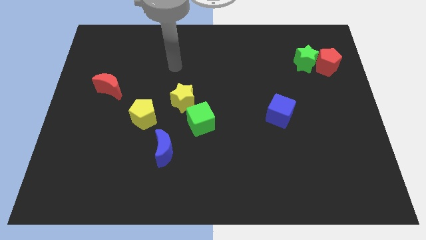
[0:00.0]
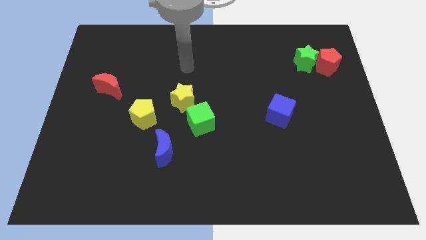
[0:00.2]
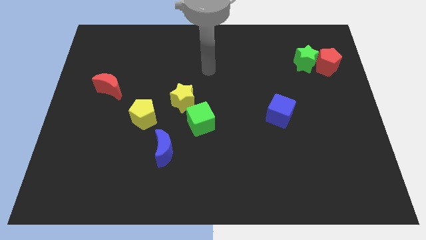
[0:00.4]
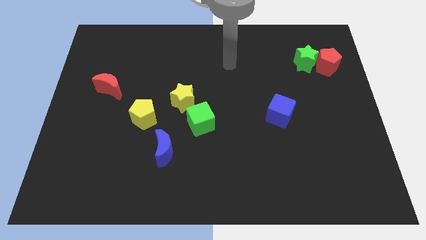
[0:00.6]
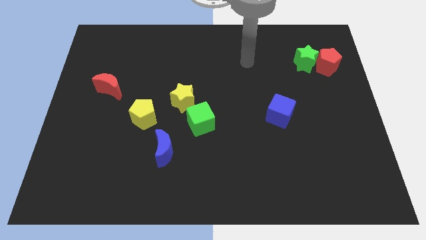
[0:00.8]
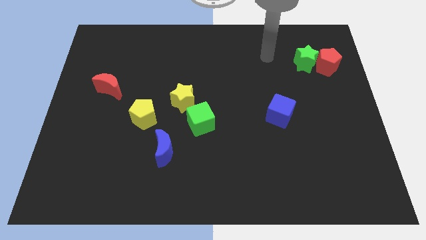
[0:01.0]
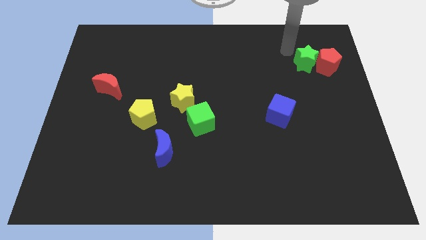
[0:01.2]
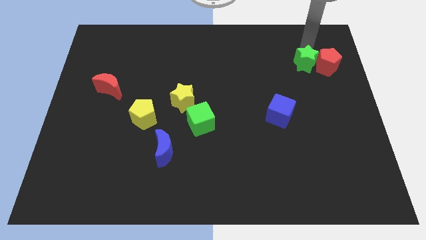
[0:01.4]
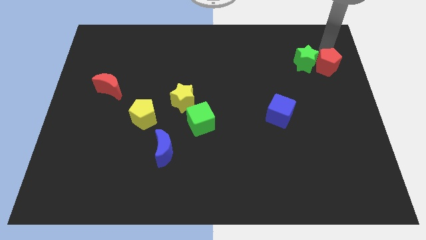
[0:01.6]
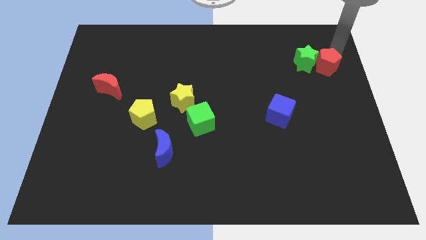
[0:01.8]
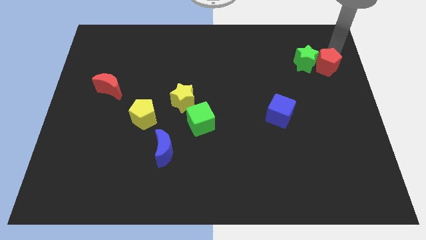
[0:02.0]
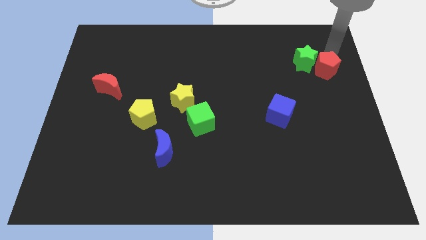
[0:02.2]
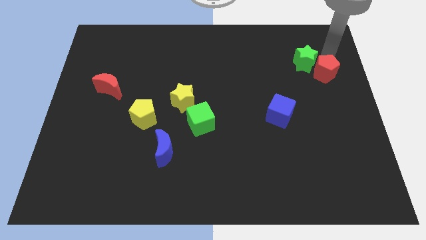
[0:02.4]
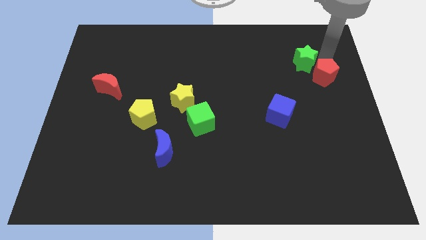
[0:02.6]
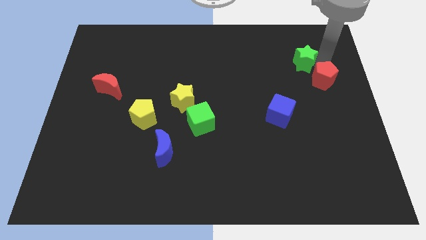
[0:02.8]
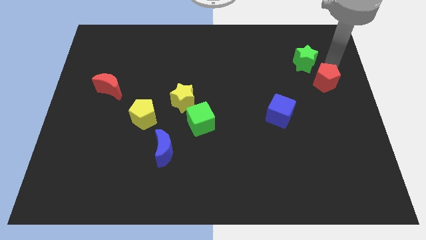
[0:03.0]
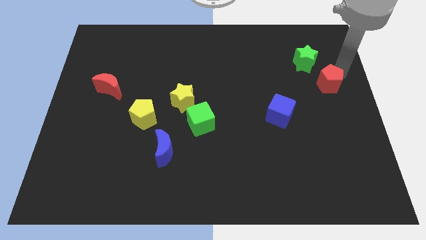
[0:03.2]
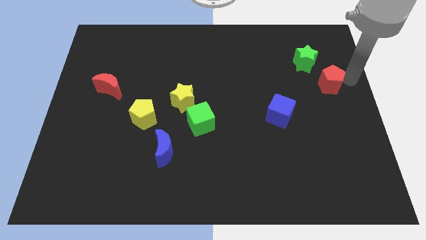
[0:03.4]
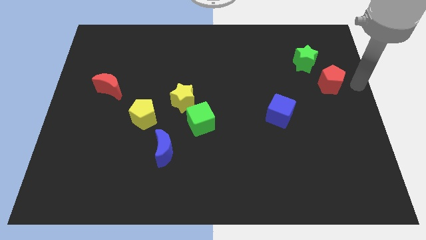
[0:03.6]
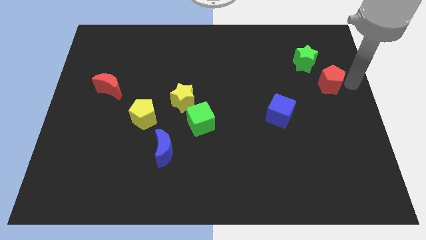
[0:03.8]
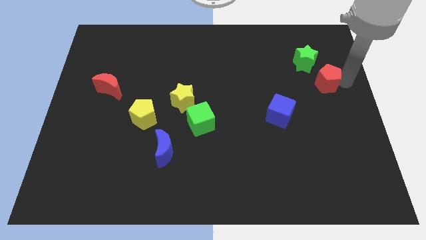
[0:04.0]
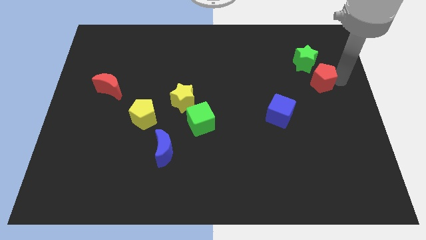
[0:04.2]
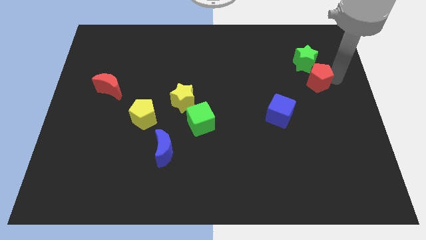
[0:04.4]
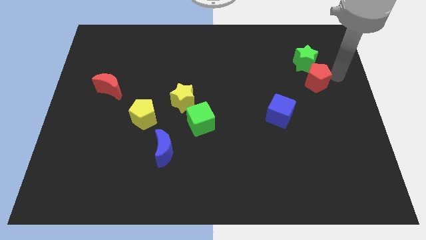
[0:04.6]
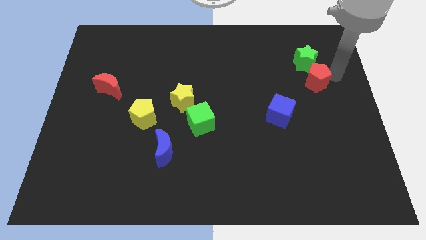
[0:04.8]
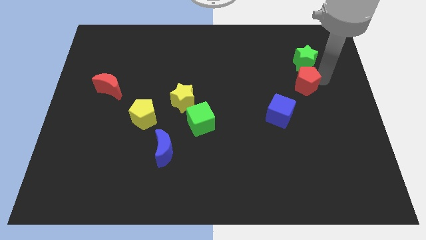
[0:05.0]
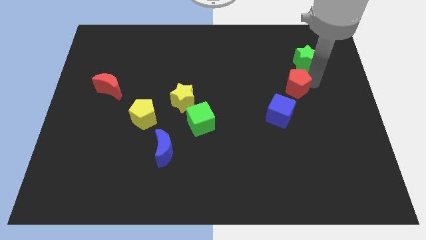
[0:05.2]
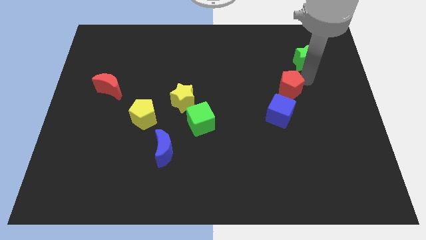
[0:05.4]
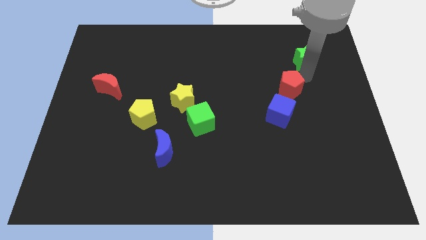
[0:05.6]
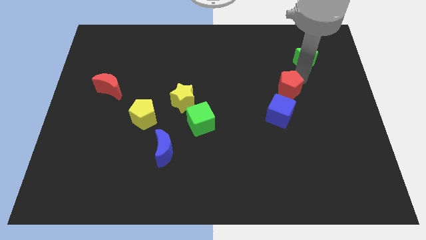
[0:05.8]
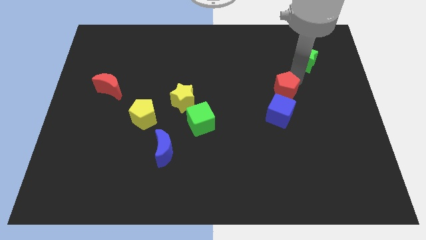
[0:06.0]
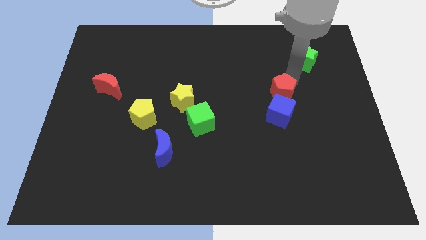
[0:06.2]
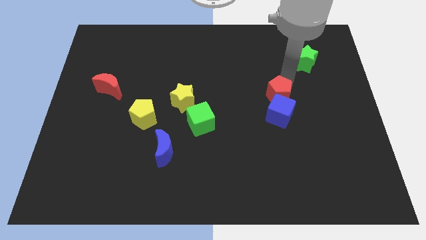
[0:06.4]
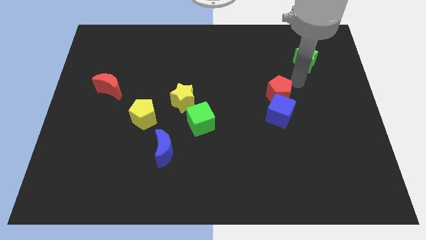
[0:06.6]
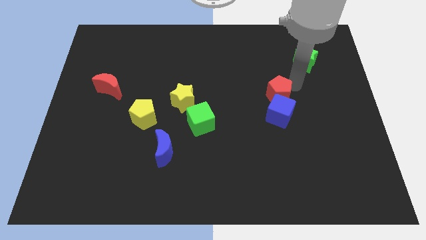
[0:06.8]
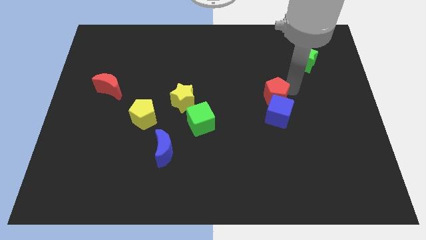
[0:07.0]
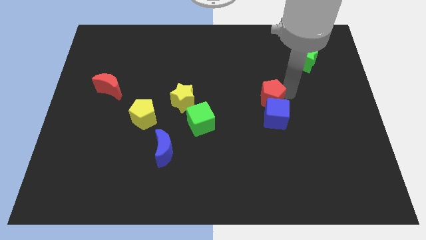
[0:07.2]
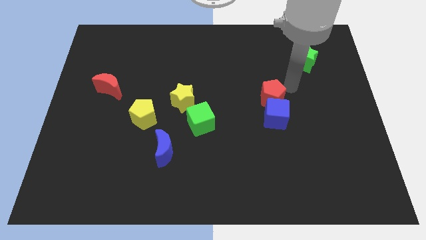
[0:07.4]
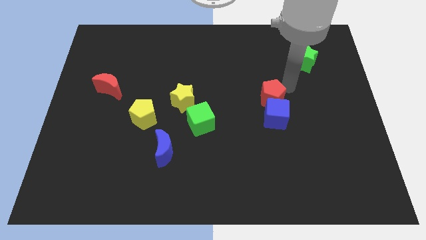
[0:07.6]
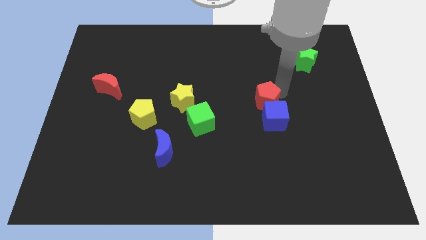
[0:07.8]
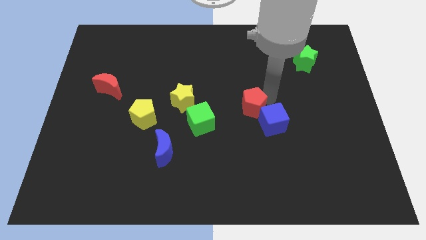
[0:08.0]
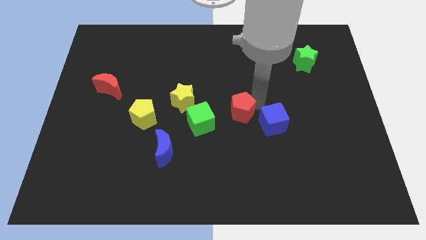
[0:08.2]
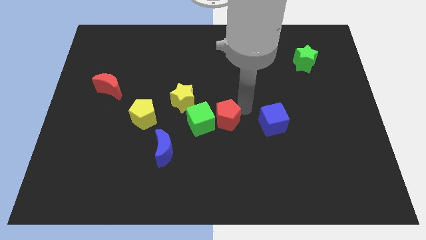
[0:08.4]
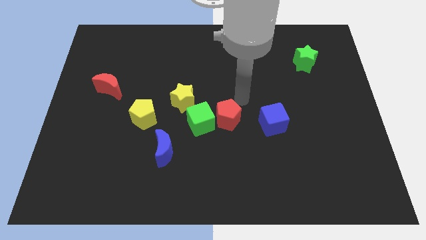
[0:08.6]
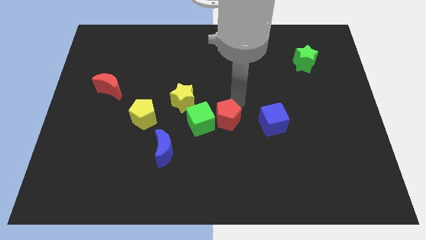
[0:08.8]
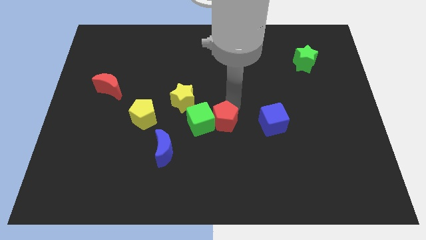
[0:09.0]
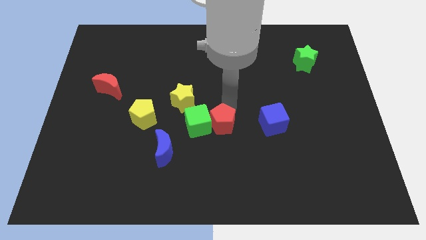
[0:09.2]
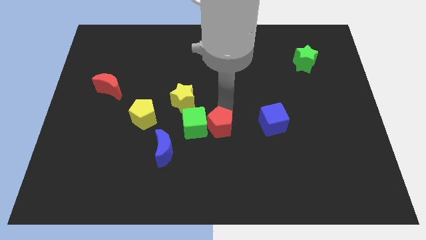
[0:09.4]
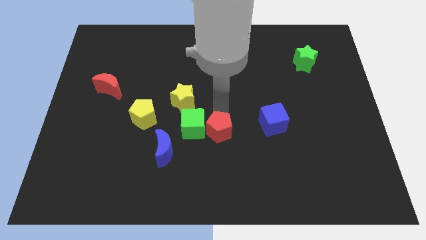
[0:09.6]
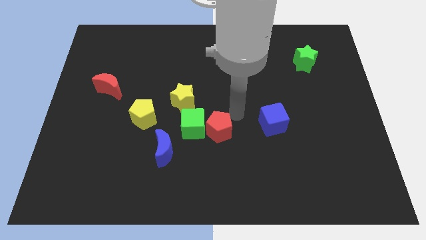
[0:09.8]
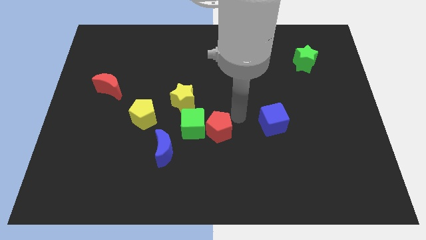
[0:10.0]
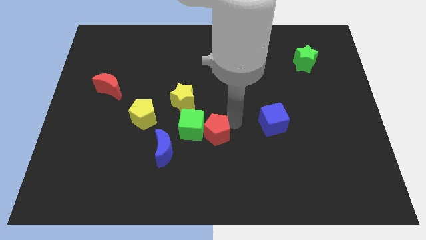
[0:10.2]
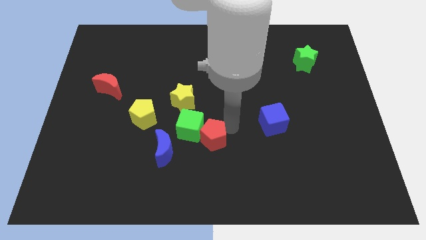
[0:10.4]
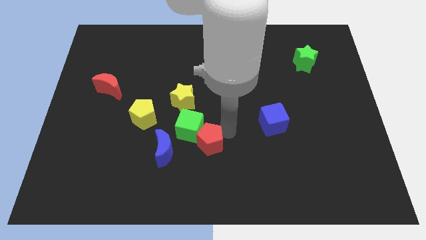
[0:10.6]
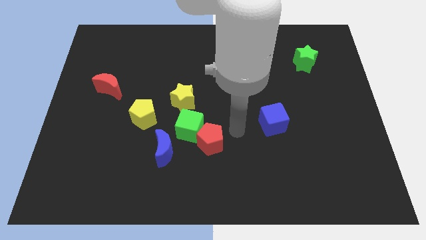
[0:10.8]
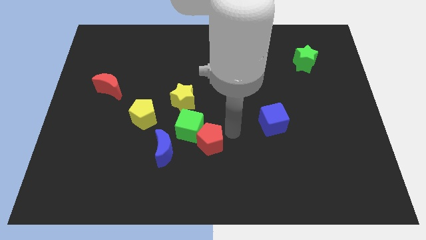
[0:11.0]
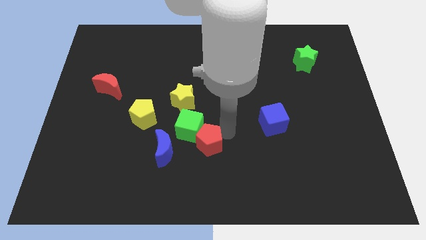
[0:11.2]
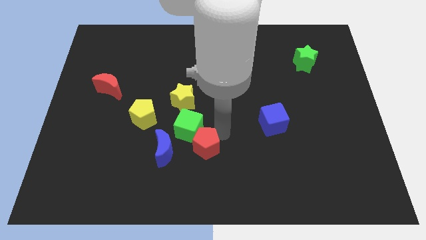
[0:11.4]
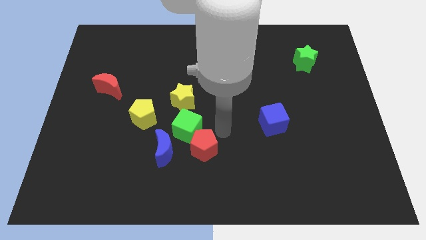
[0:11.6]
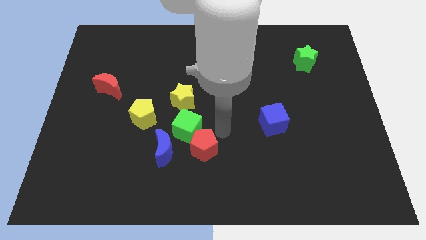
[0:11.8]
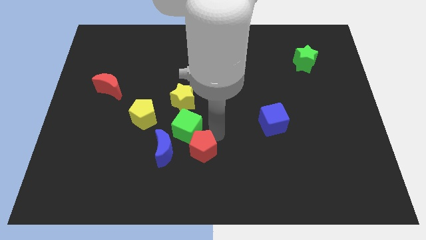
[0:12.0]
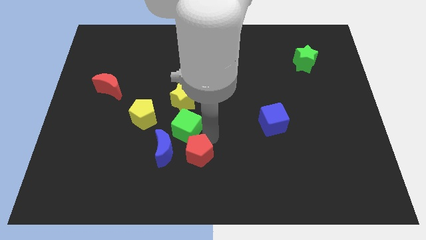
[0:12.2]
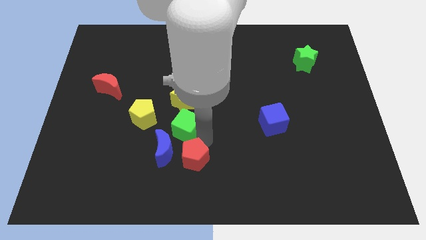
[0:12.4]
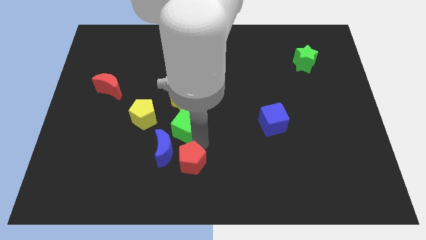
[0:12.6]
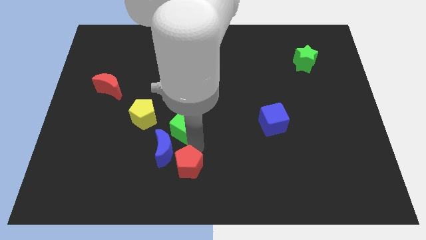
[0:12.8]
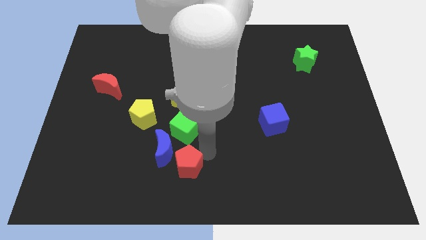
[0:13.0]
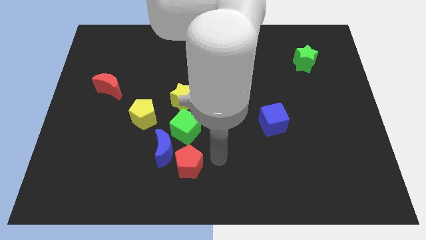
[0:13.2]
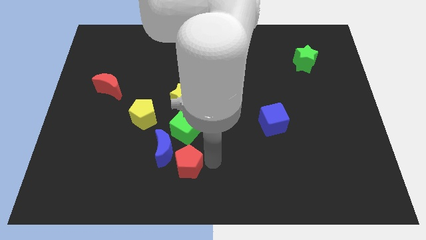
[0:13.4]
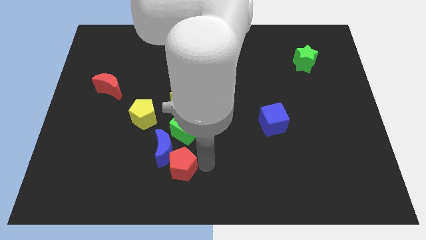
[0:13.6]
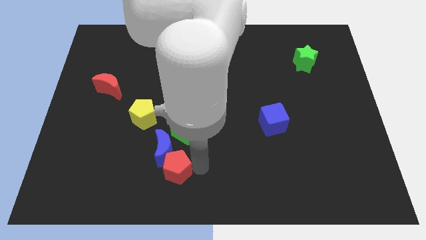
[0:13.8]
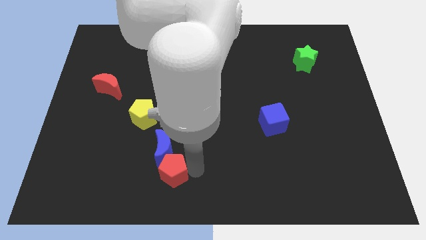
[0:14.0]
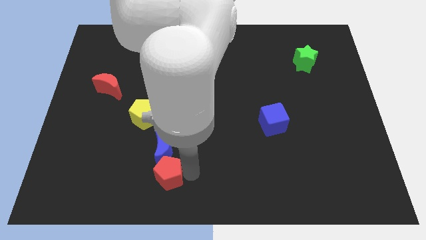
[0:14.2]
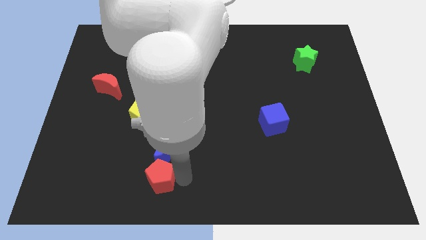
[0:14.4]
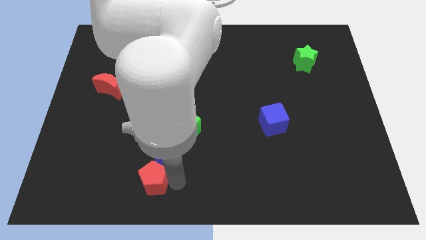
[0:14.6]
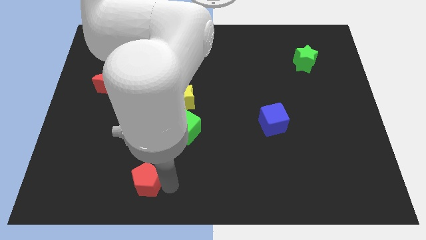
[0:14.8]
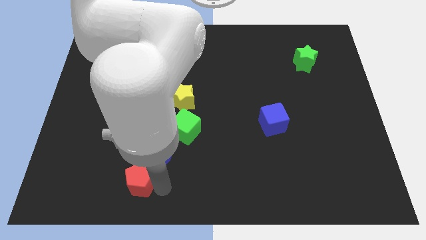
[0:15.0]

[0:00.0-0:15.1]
put the red pentagon to the bottom of the yellow pentagon
